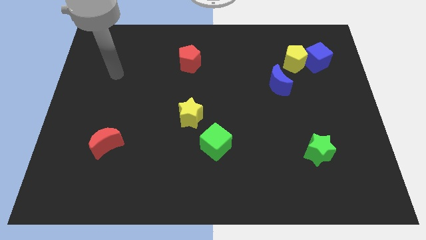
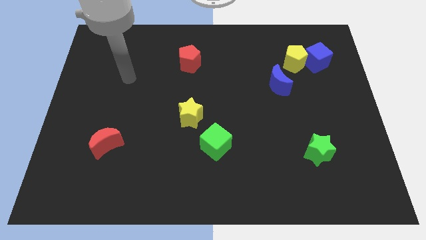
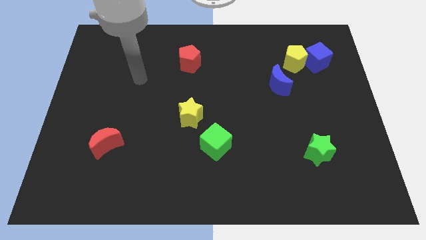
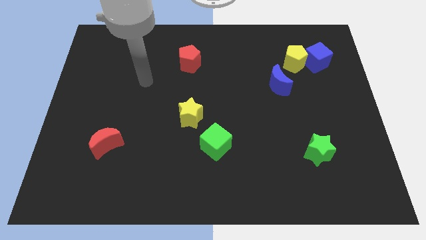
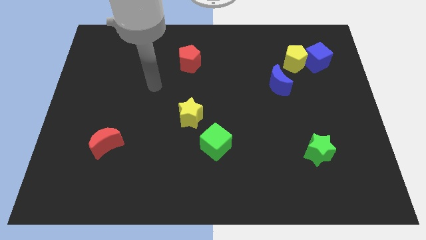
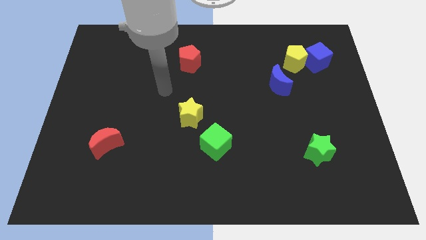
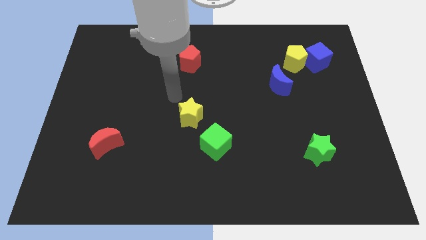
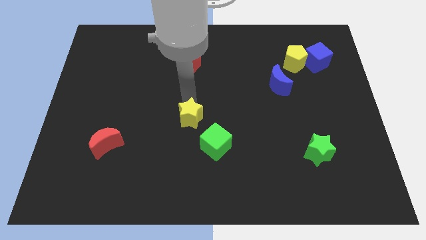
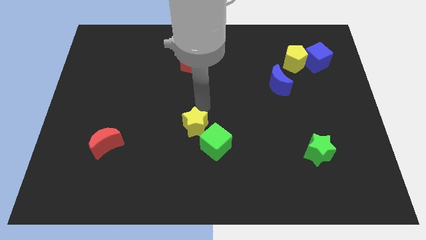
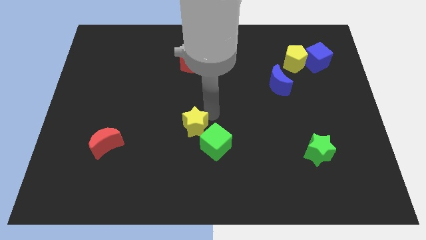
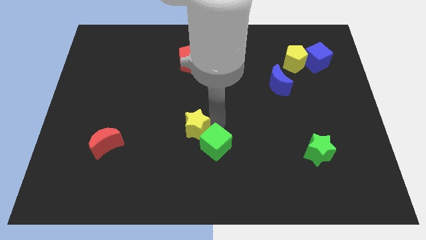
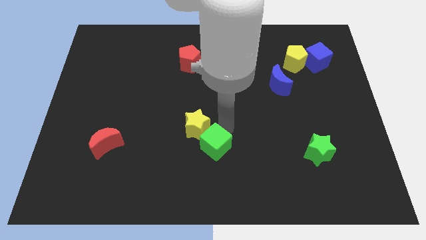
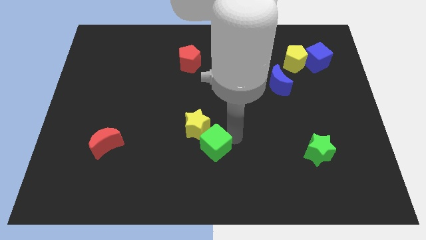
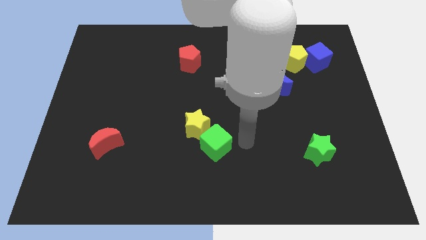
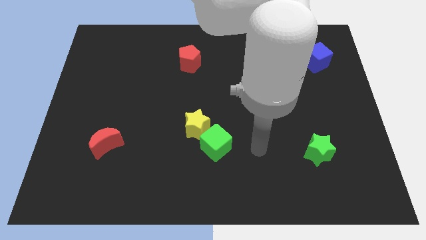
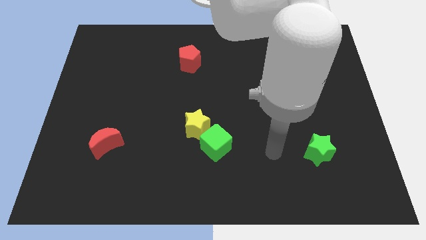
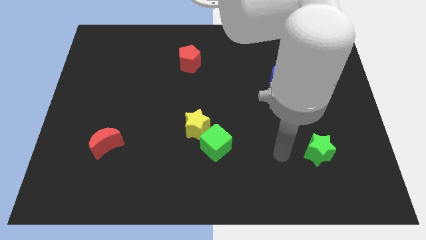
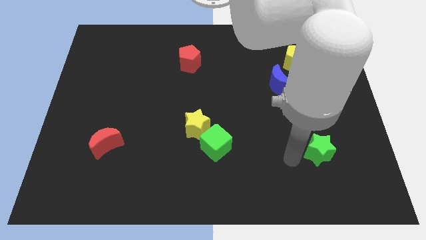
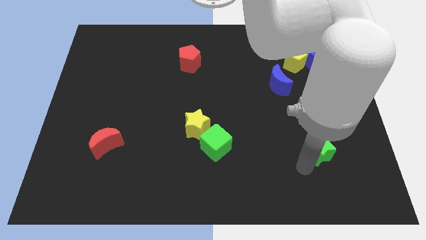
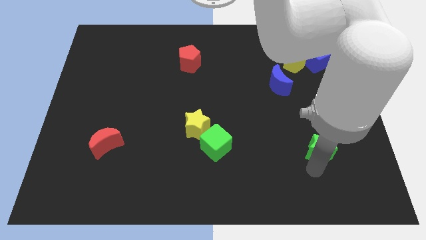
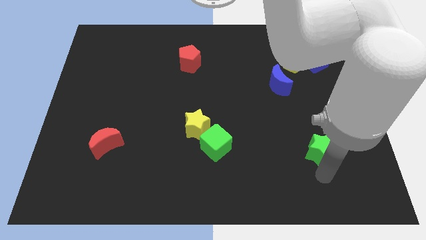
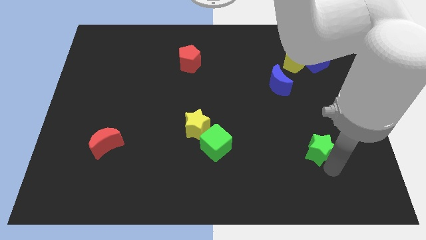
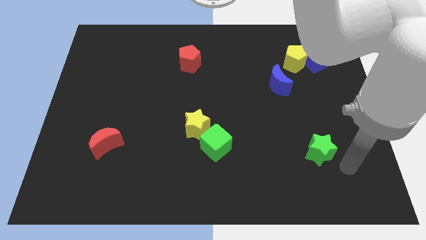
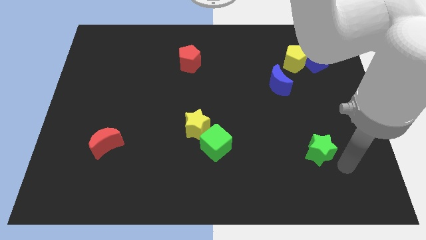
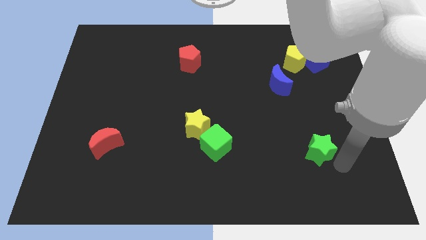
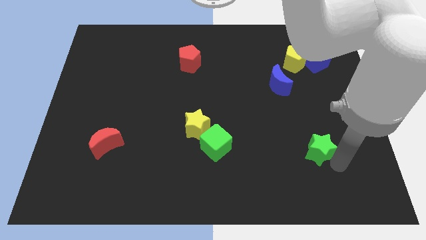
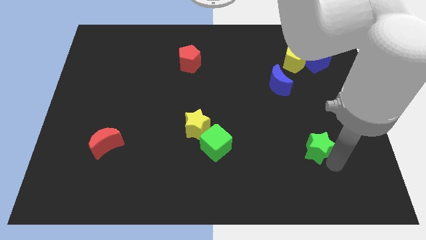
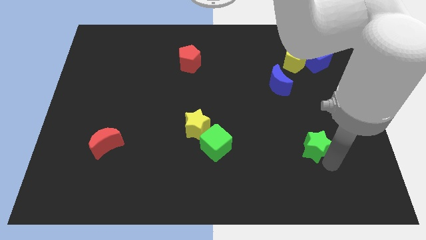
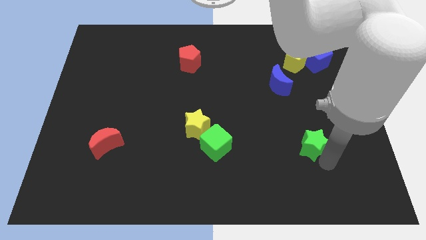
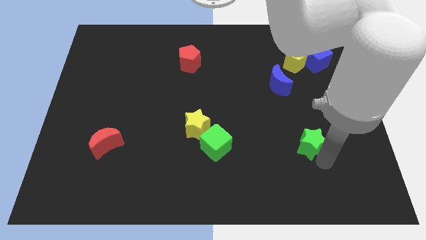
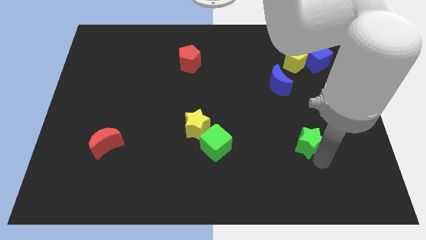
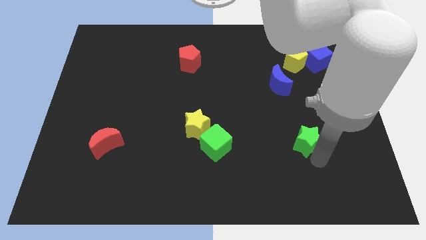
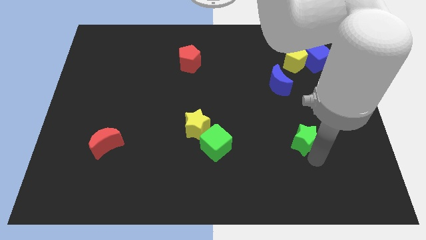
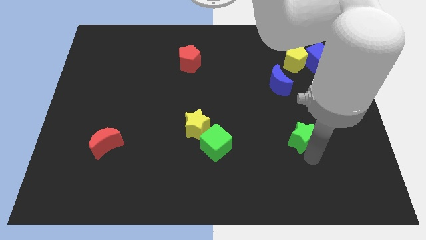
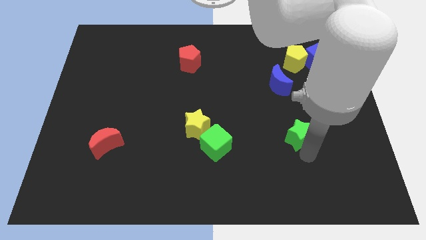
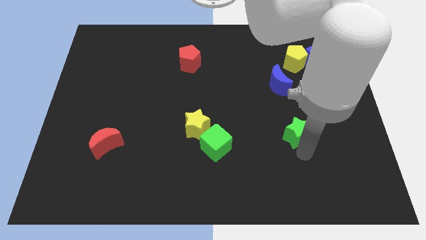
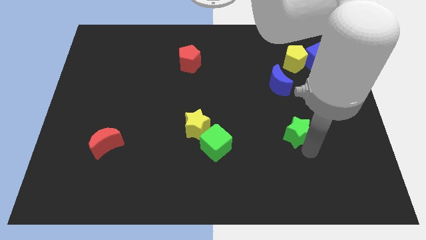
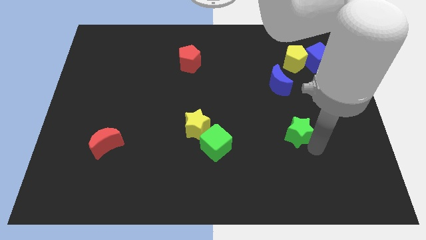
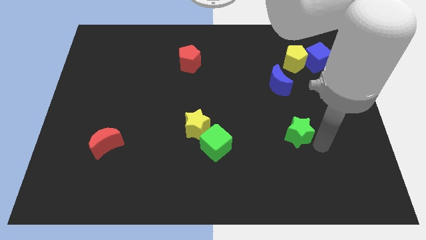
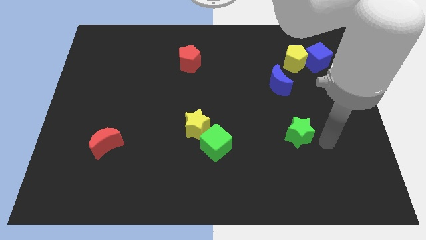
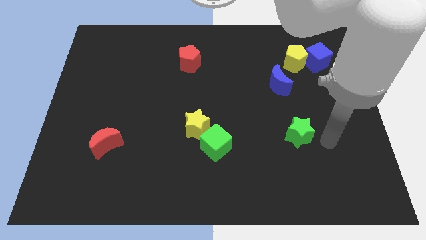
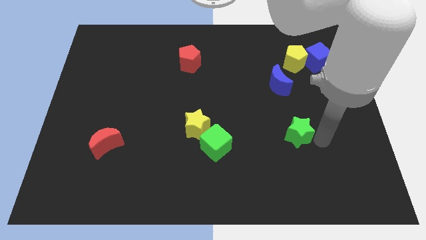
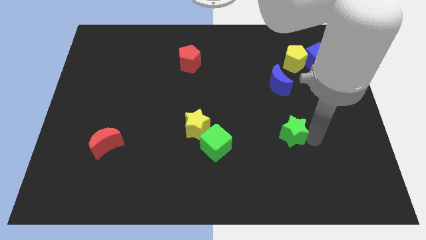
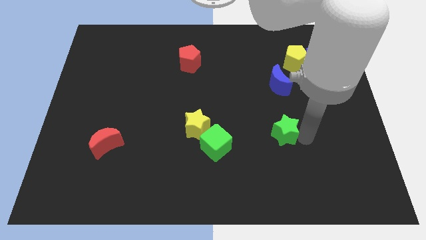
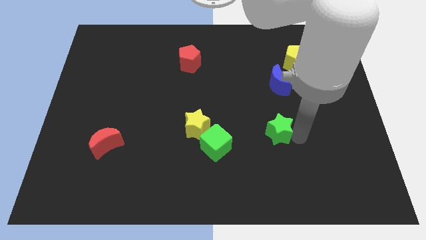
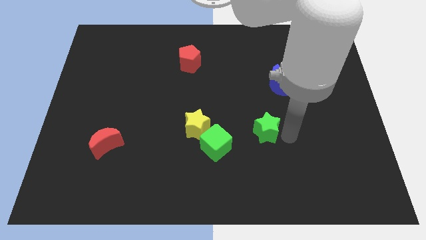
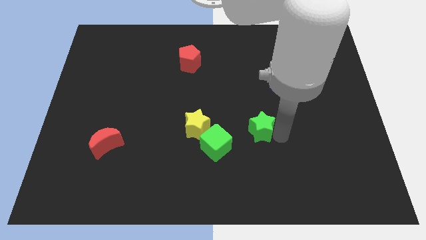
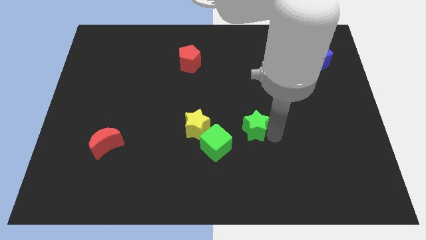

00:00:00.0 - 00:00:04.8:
put the green star to the center

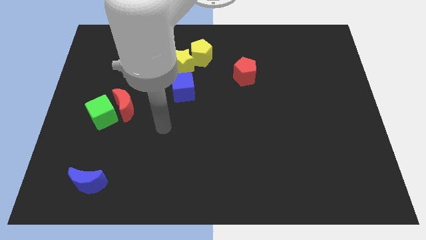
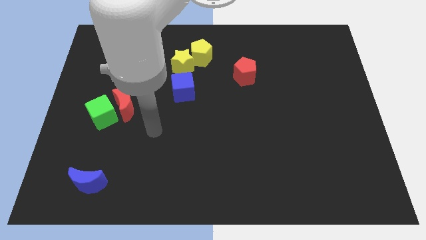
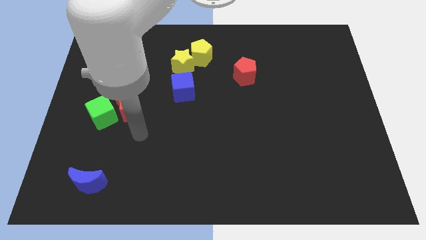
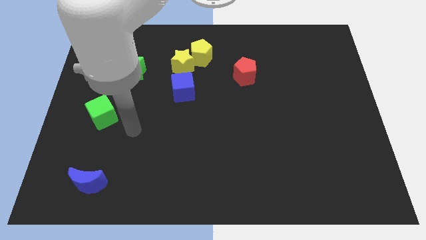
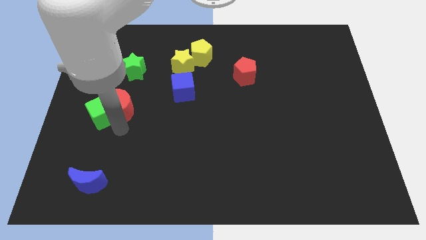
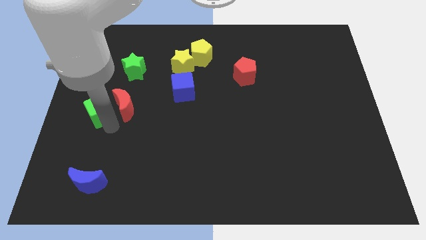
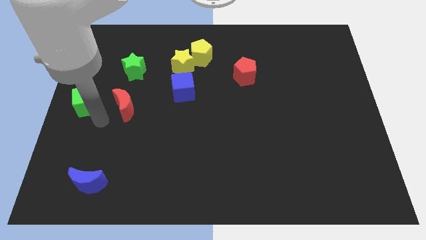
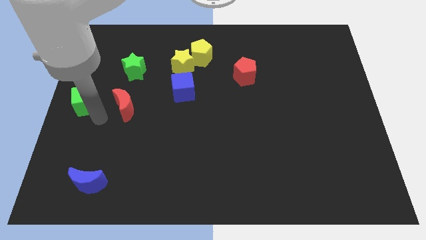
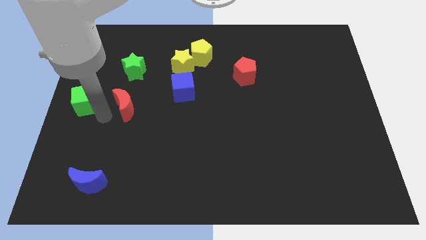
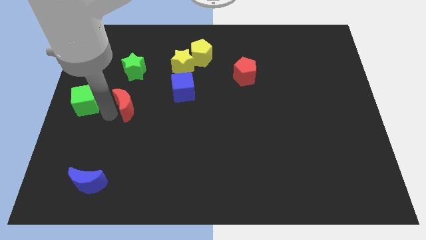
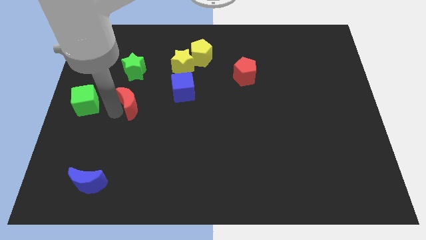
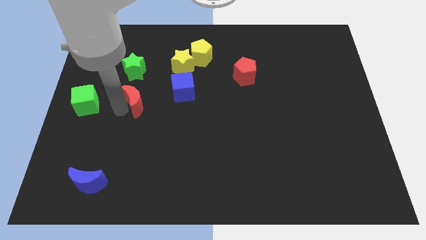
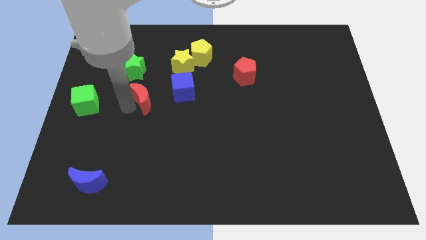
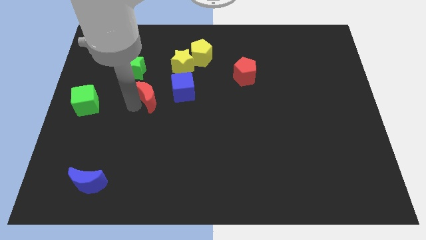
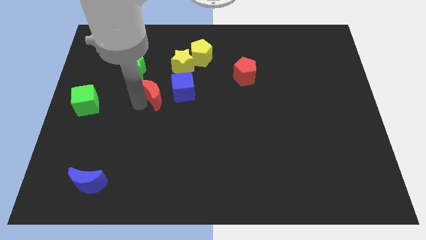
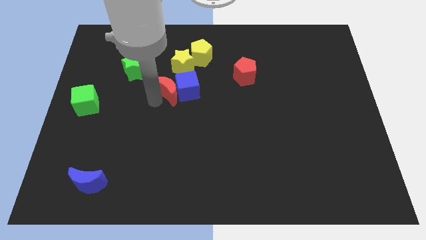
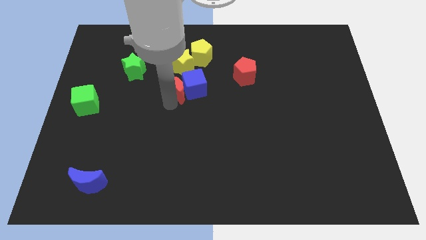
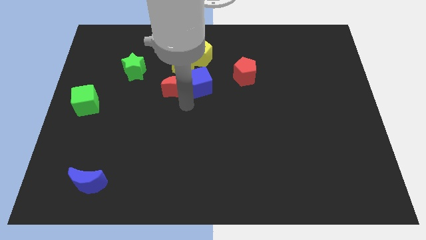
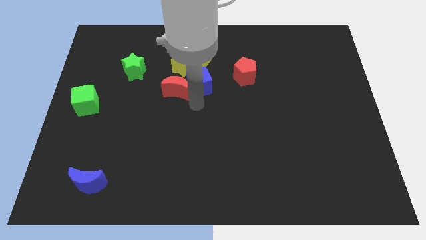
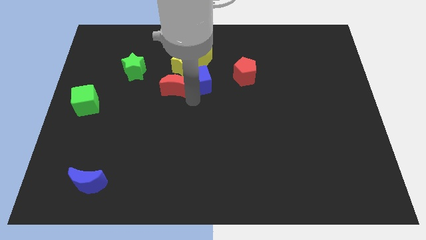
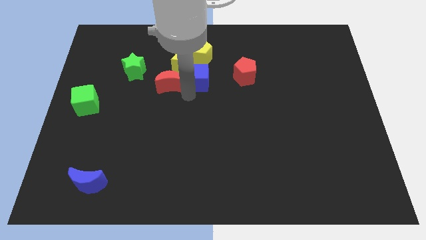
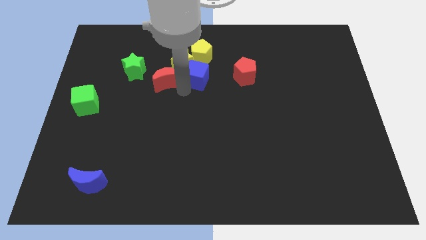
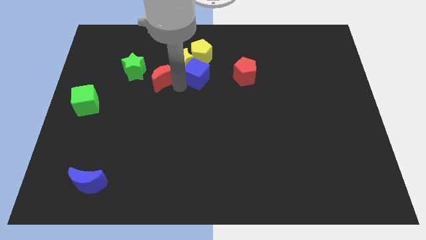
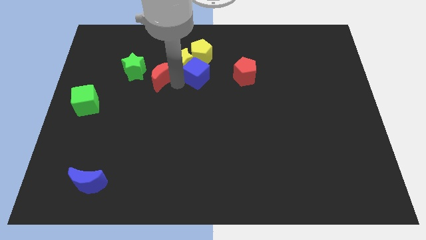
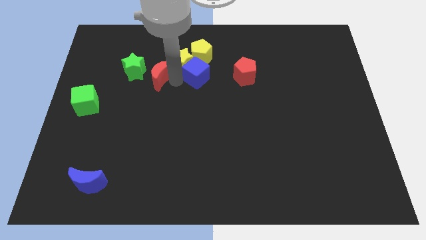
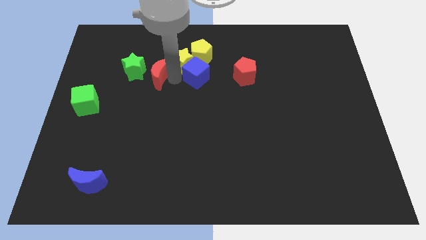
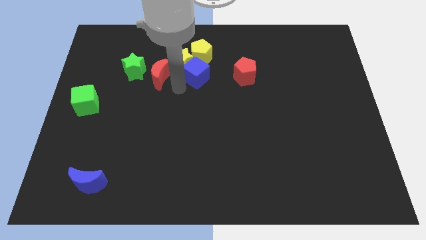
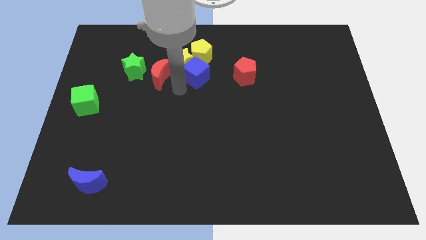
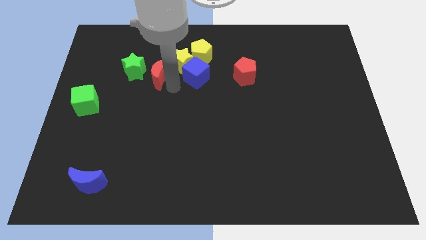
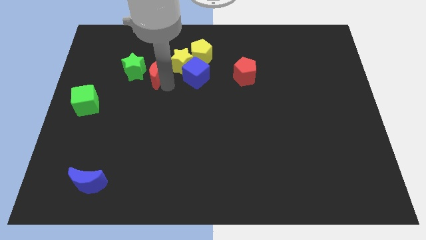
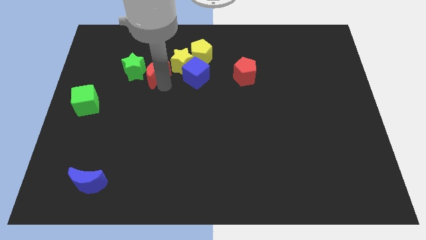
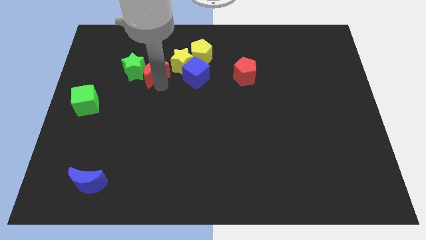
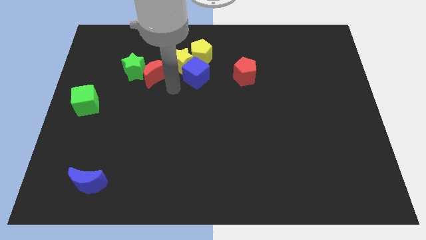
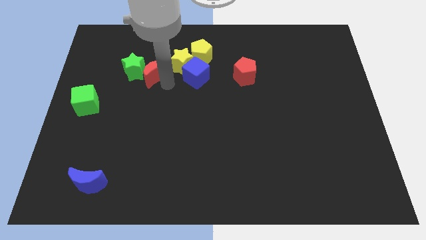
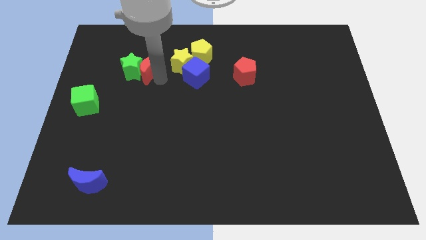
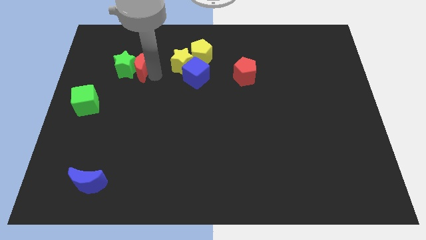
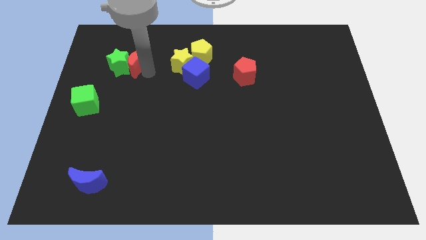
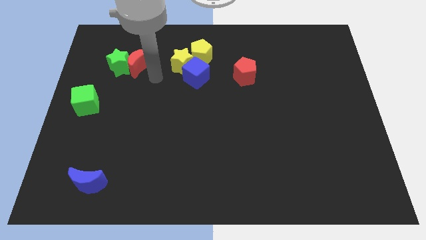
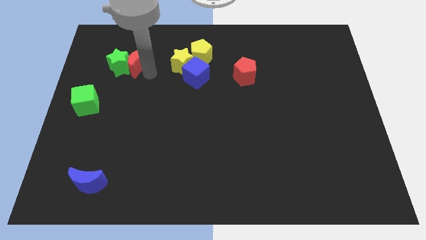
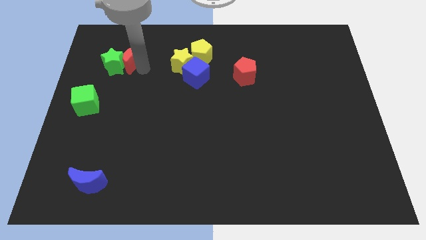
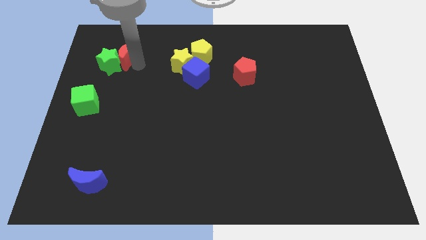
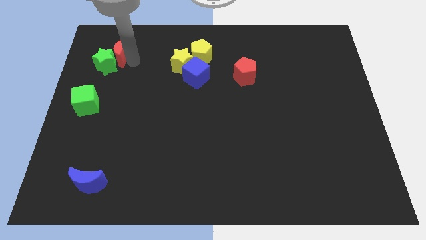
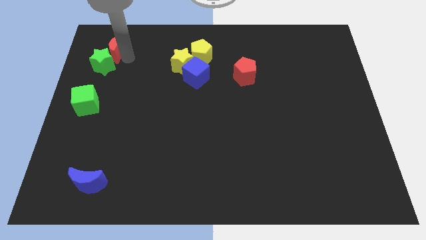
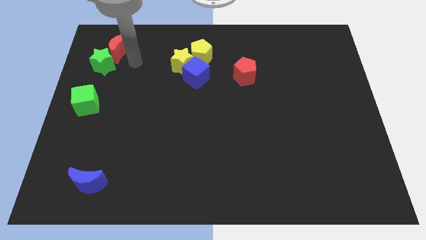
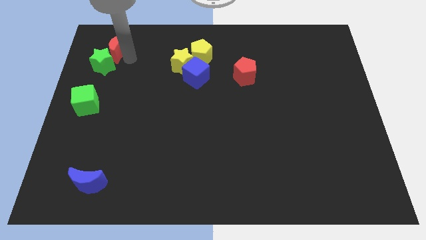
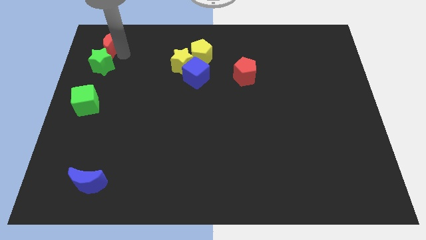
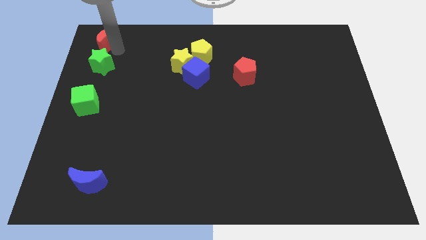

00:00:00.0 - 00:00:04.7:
put the red moon to the top left
